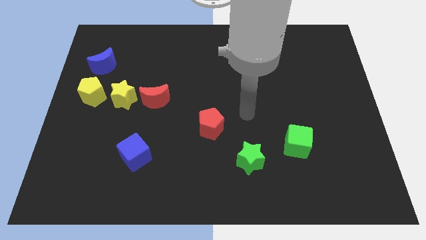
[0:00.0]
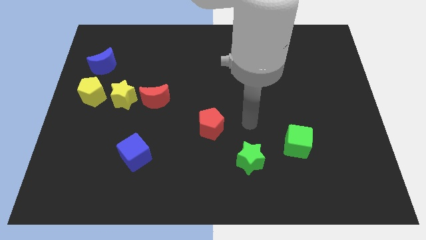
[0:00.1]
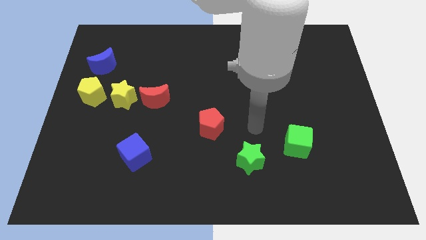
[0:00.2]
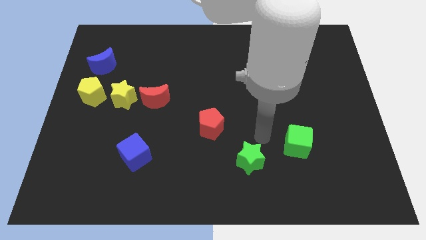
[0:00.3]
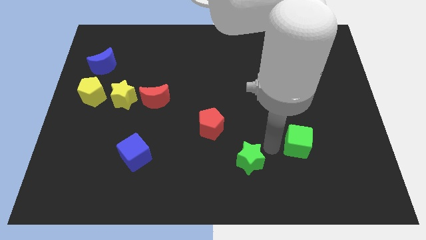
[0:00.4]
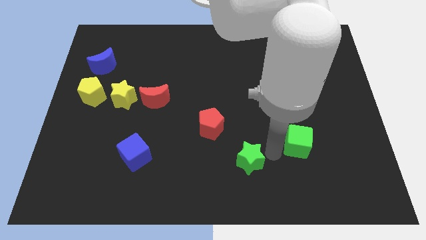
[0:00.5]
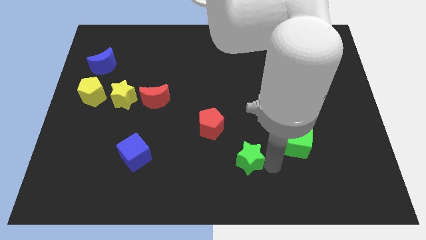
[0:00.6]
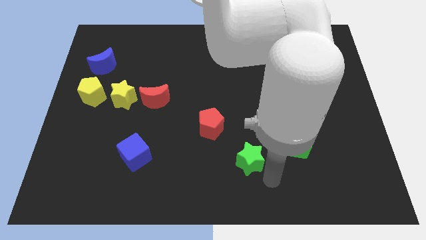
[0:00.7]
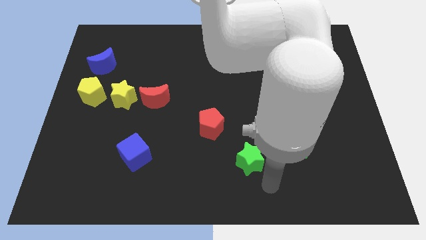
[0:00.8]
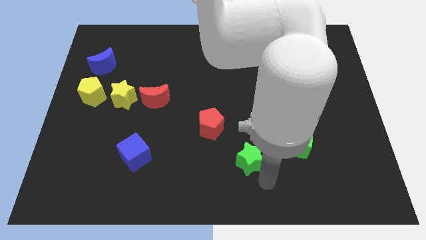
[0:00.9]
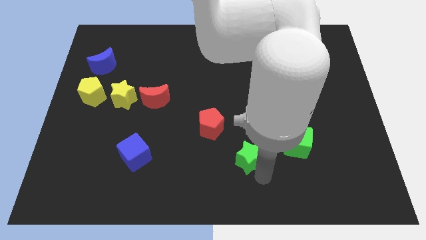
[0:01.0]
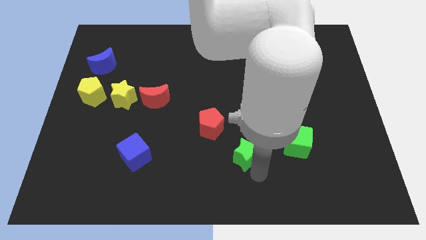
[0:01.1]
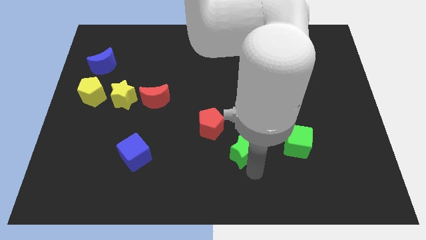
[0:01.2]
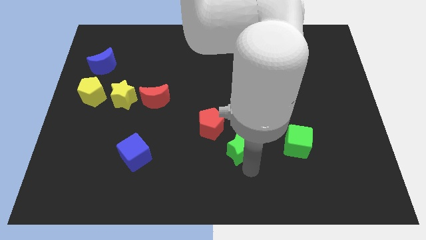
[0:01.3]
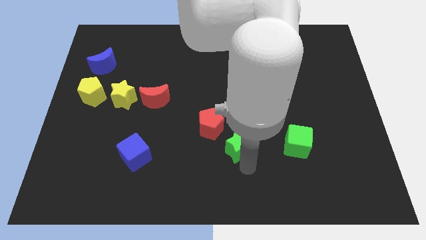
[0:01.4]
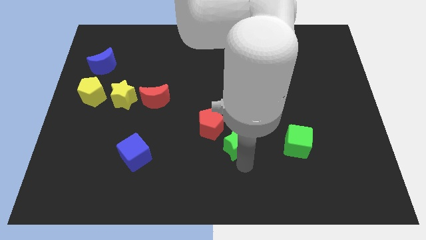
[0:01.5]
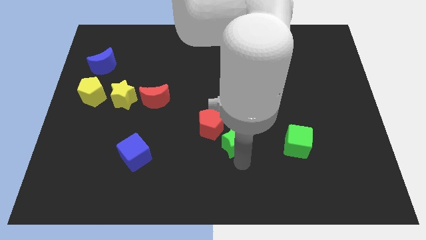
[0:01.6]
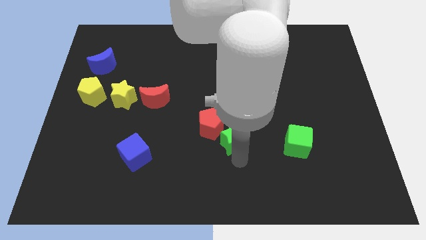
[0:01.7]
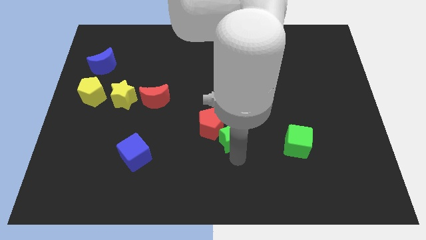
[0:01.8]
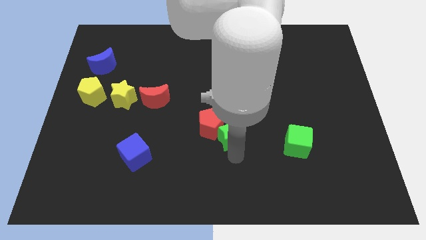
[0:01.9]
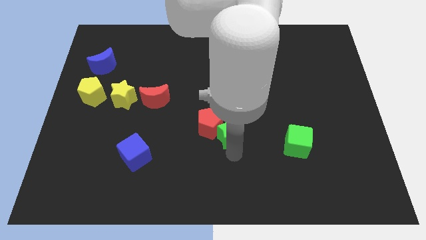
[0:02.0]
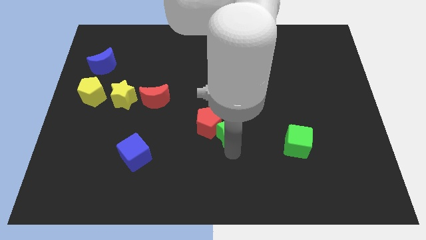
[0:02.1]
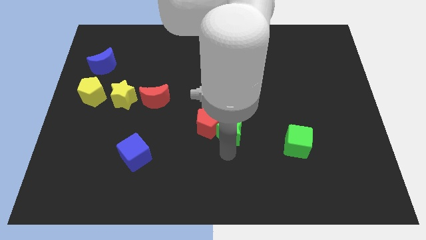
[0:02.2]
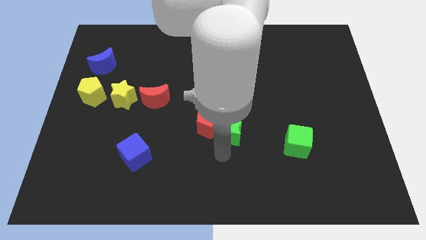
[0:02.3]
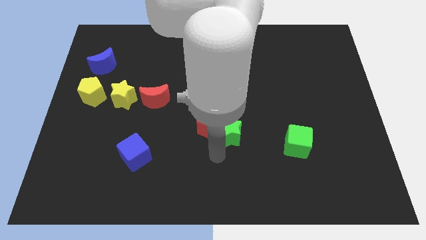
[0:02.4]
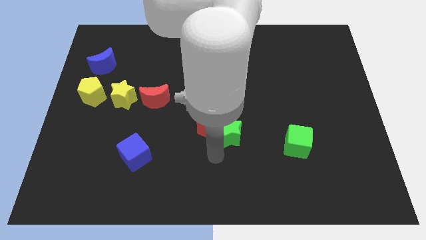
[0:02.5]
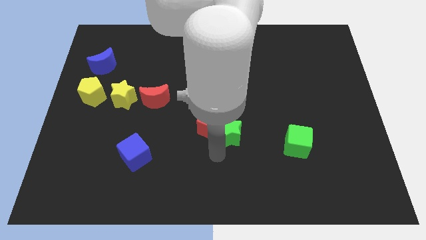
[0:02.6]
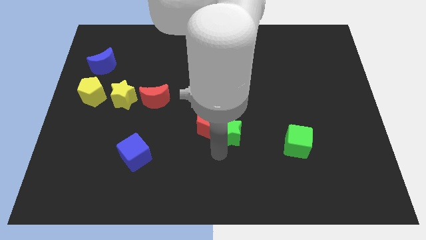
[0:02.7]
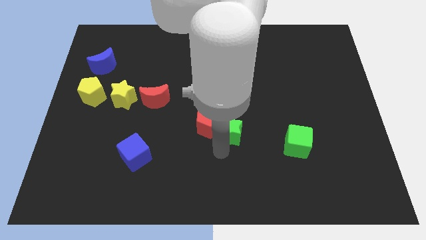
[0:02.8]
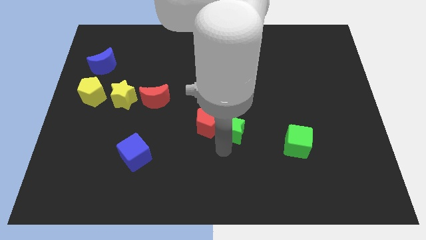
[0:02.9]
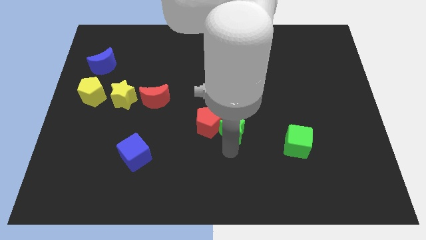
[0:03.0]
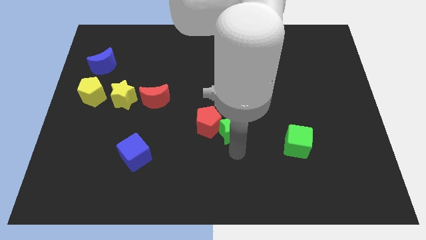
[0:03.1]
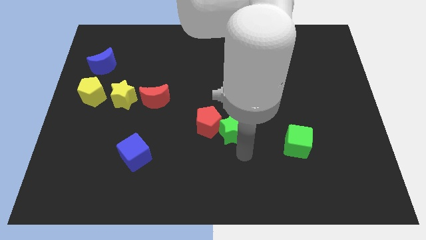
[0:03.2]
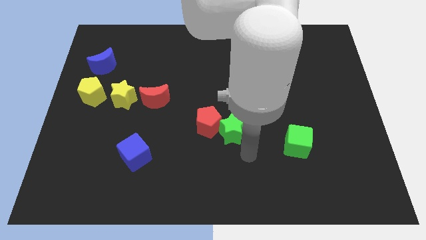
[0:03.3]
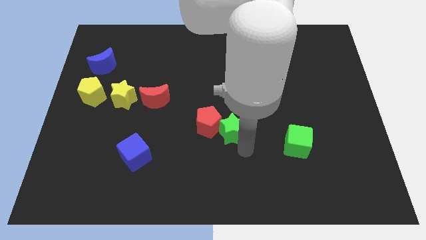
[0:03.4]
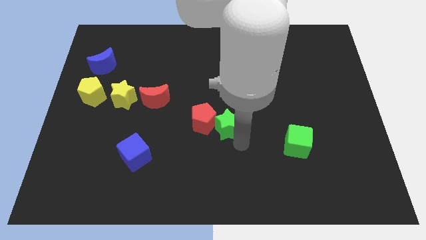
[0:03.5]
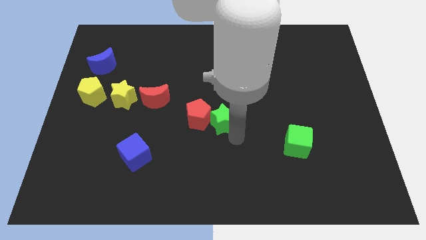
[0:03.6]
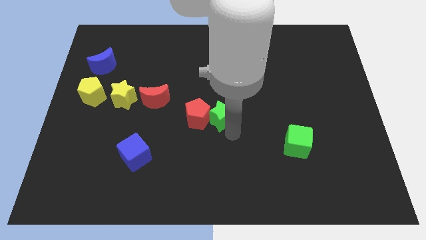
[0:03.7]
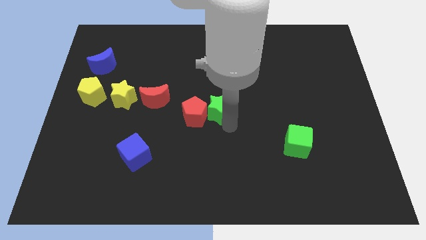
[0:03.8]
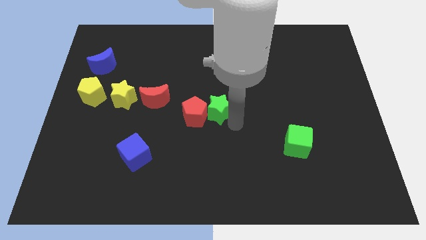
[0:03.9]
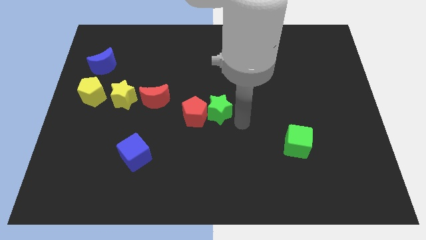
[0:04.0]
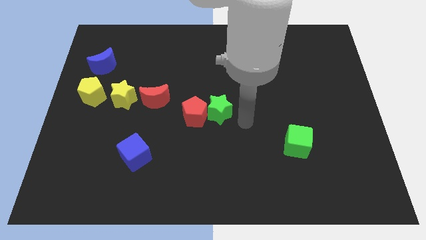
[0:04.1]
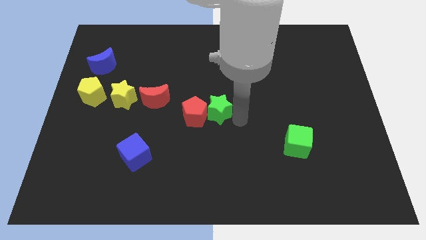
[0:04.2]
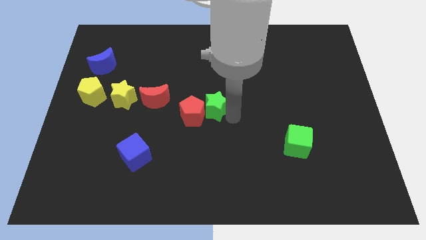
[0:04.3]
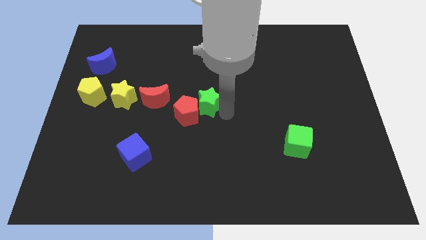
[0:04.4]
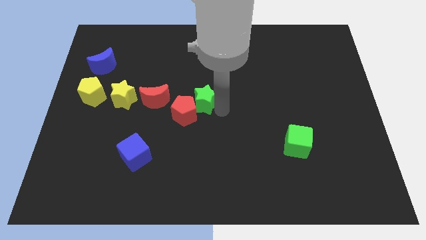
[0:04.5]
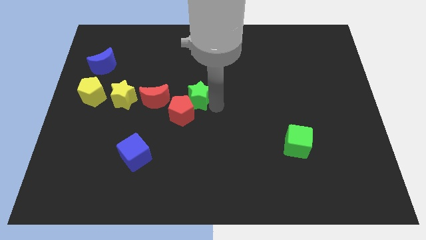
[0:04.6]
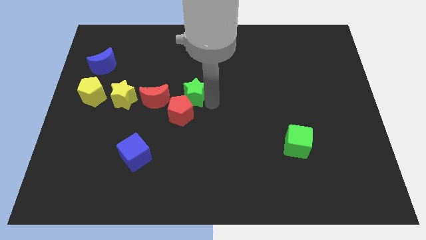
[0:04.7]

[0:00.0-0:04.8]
push the green star up and to the left

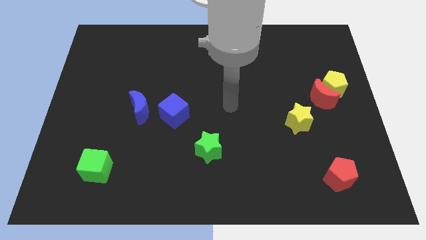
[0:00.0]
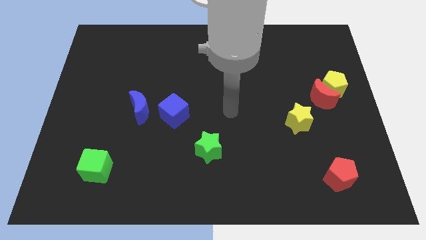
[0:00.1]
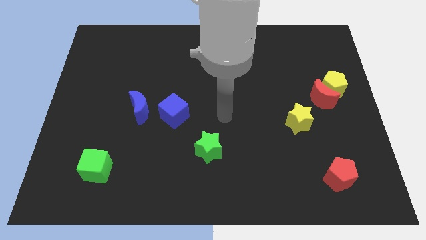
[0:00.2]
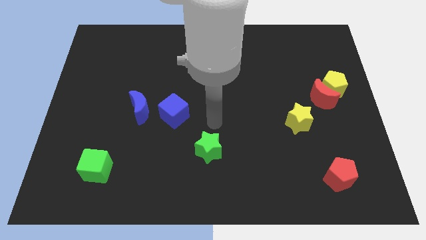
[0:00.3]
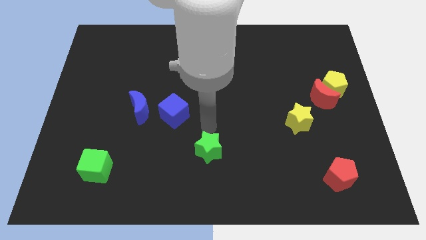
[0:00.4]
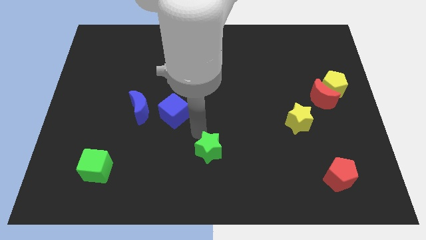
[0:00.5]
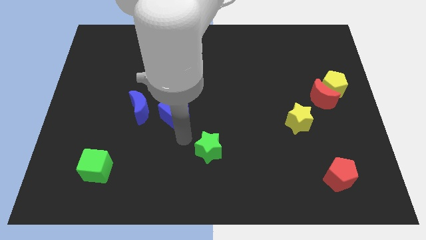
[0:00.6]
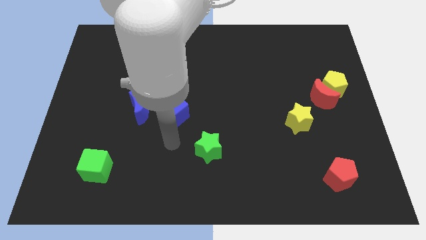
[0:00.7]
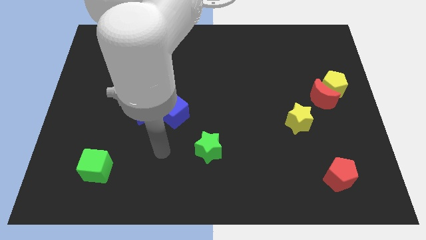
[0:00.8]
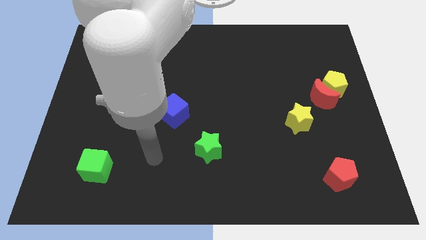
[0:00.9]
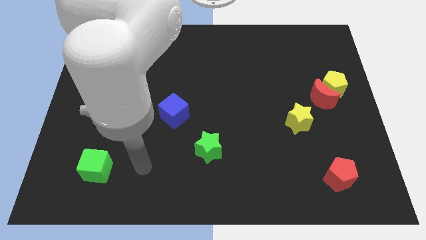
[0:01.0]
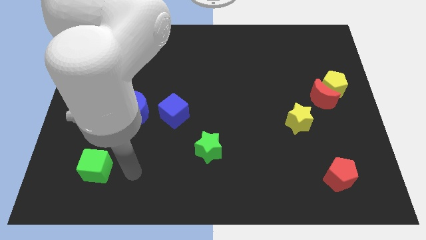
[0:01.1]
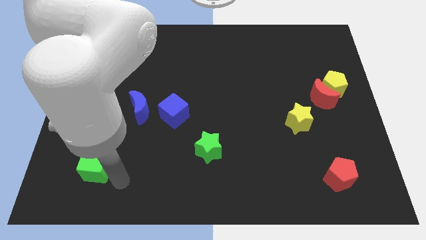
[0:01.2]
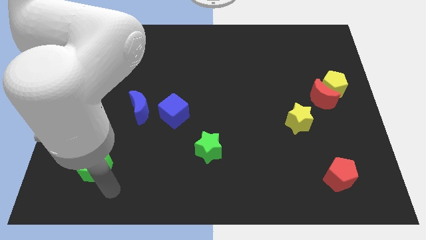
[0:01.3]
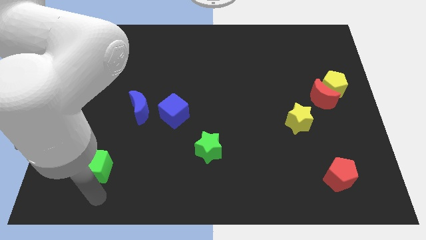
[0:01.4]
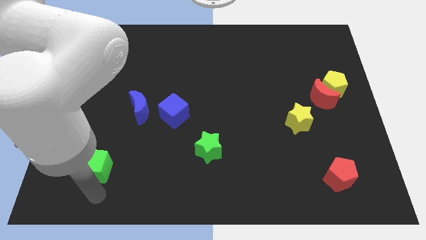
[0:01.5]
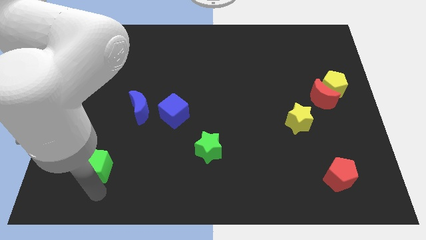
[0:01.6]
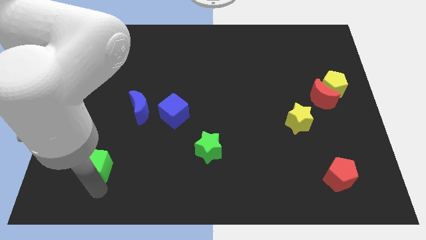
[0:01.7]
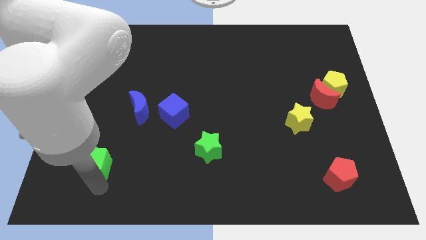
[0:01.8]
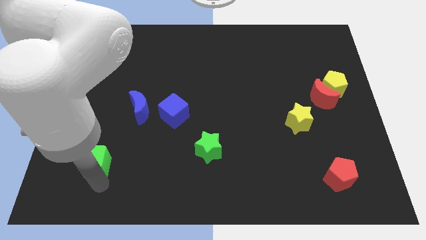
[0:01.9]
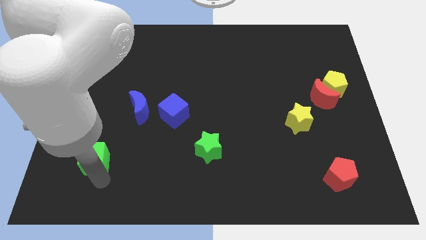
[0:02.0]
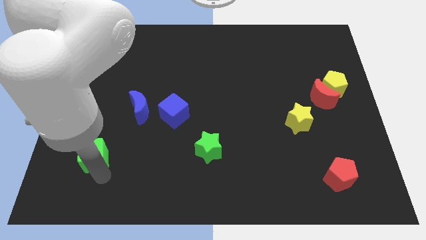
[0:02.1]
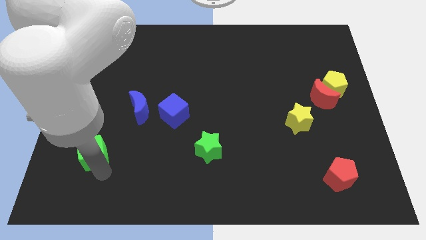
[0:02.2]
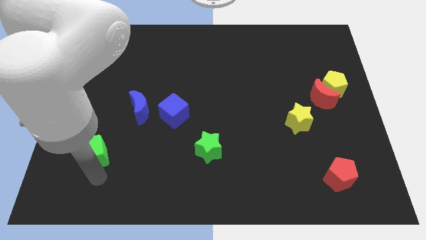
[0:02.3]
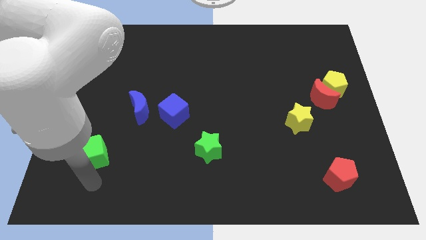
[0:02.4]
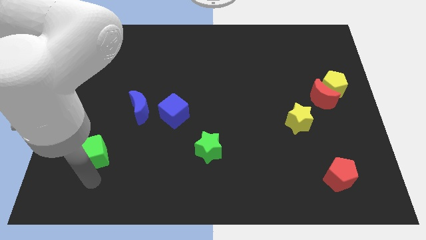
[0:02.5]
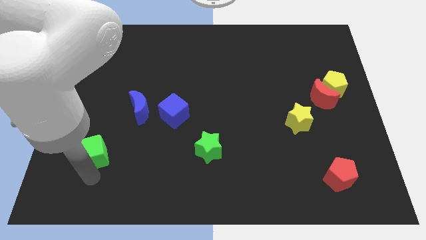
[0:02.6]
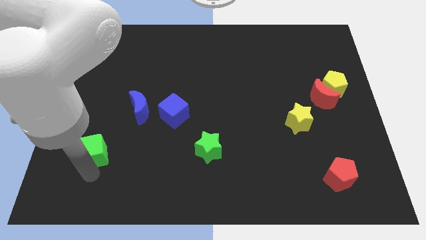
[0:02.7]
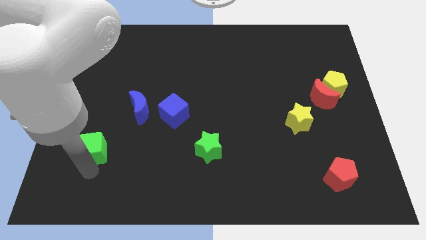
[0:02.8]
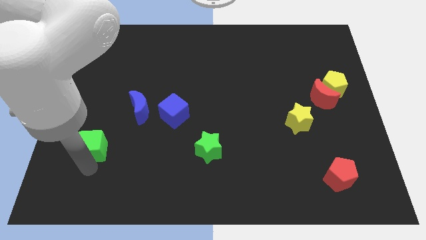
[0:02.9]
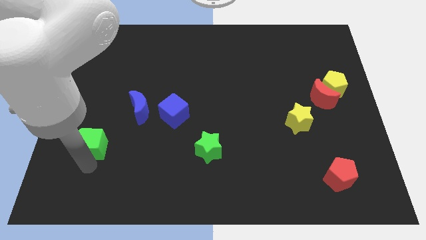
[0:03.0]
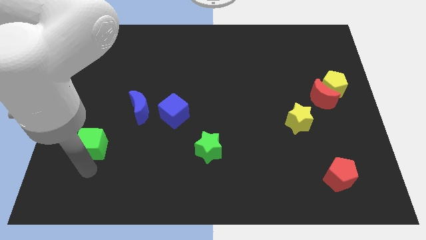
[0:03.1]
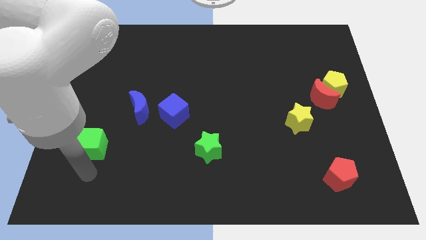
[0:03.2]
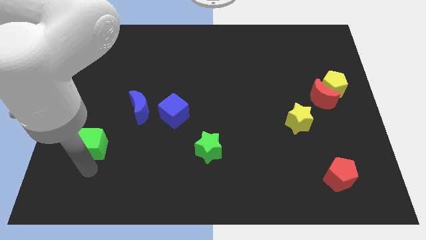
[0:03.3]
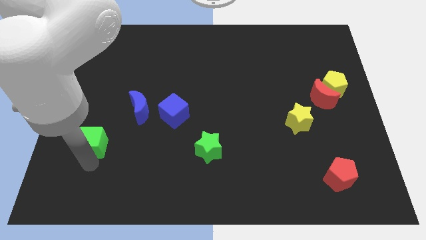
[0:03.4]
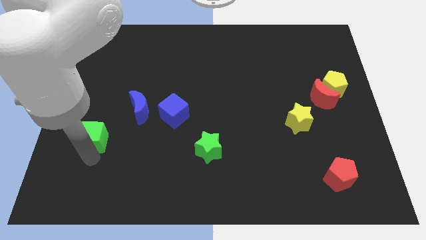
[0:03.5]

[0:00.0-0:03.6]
move the green cube somewhat up
